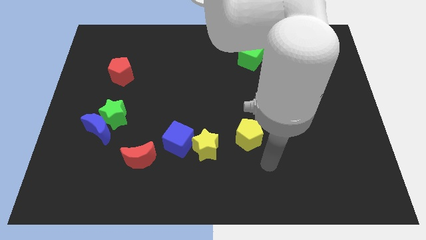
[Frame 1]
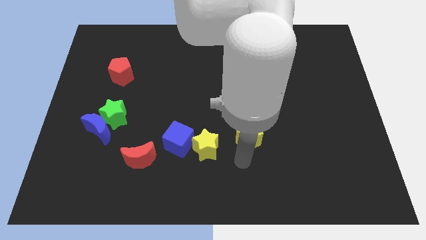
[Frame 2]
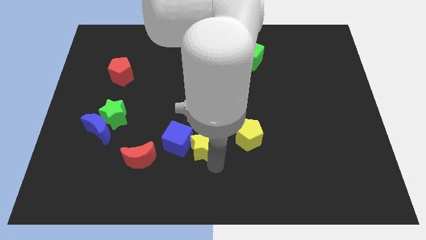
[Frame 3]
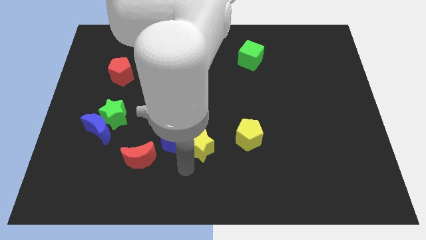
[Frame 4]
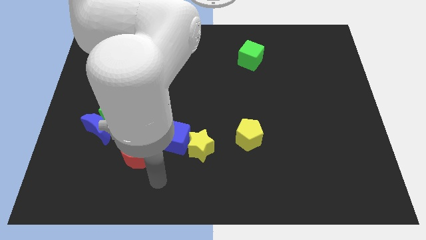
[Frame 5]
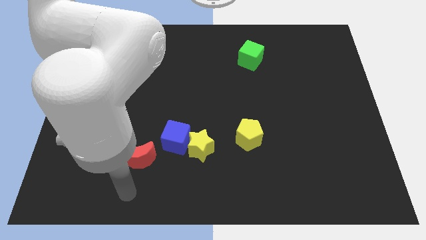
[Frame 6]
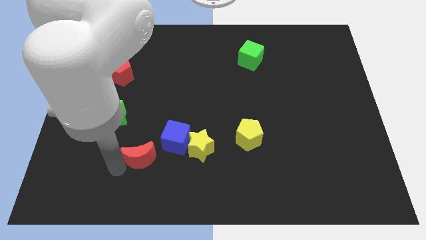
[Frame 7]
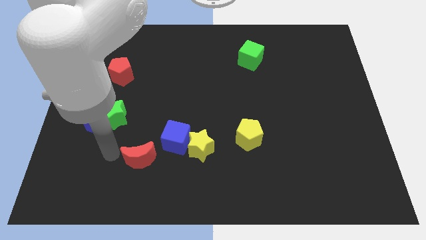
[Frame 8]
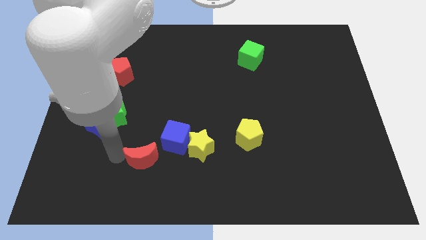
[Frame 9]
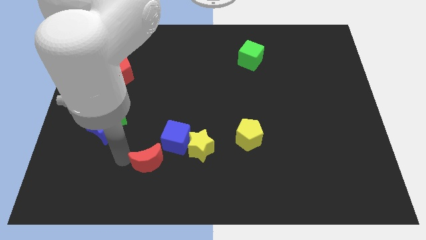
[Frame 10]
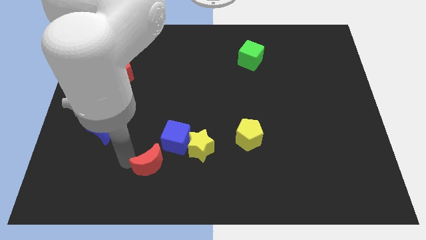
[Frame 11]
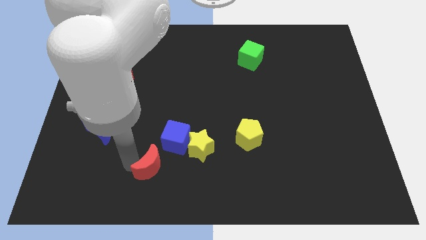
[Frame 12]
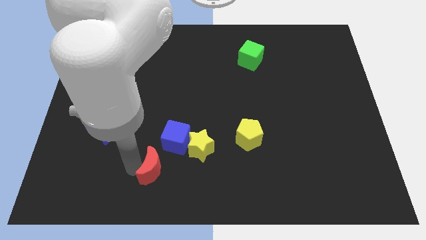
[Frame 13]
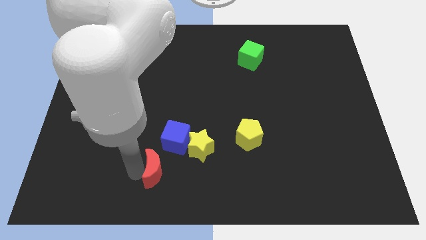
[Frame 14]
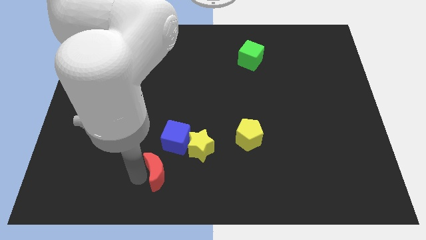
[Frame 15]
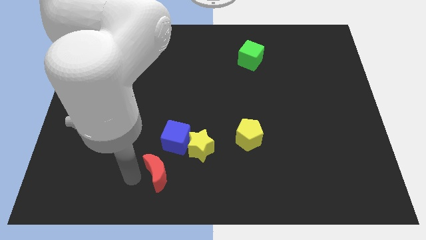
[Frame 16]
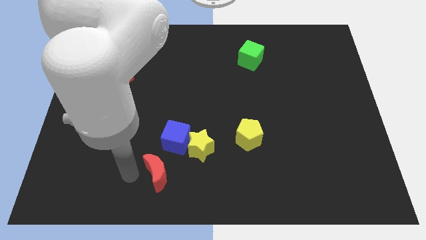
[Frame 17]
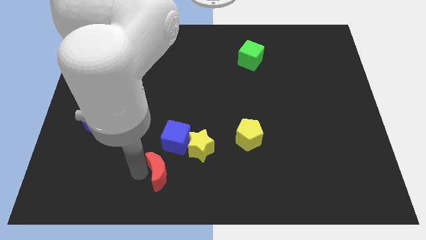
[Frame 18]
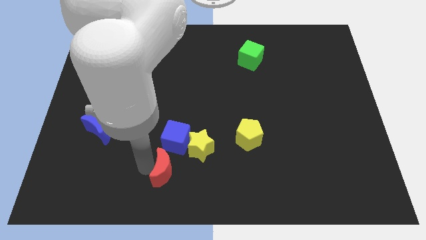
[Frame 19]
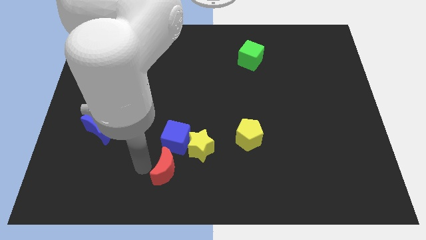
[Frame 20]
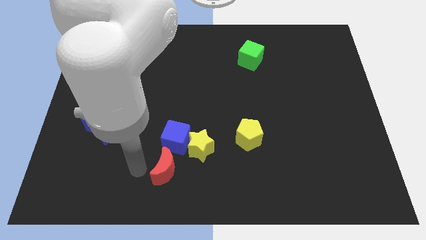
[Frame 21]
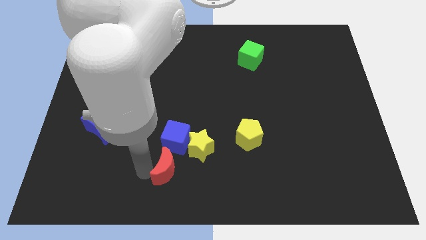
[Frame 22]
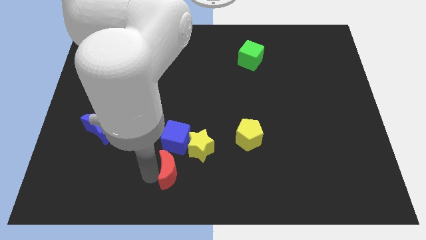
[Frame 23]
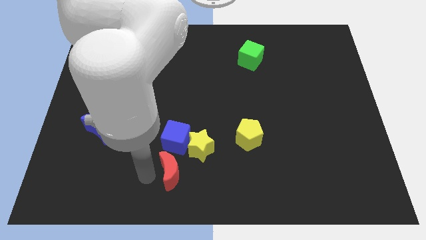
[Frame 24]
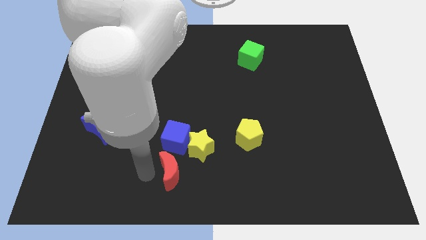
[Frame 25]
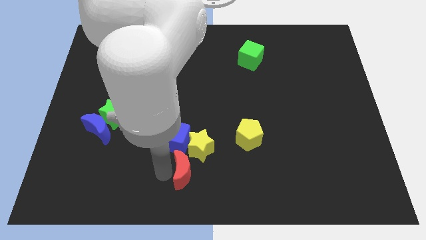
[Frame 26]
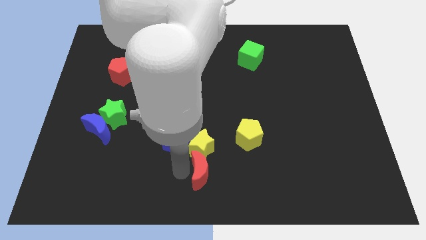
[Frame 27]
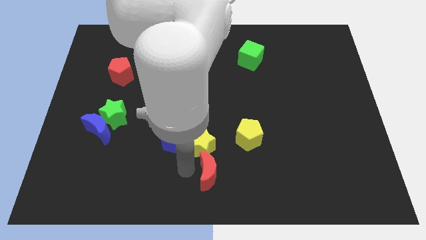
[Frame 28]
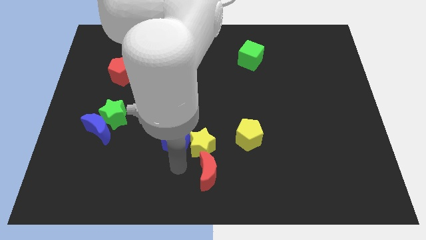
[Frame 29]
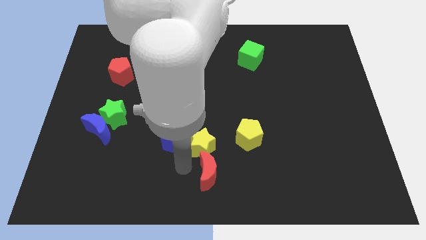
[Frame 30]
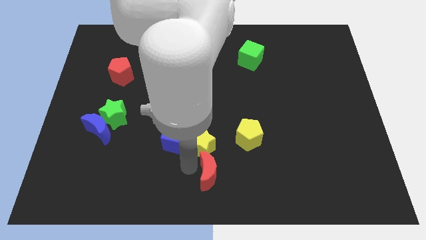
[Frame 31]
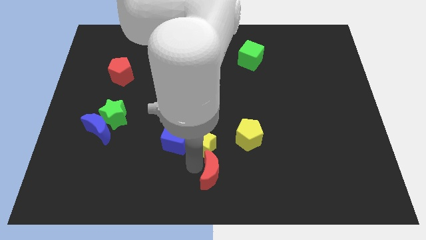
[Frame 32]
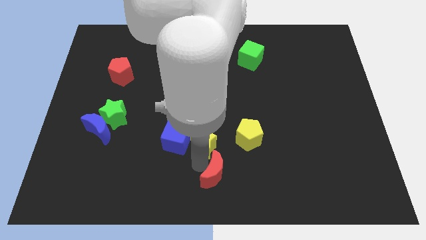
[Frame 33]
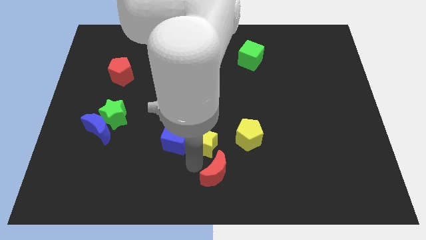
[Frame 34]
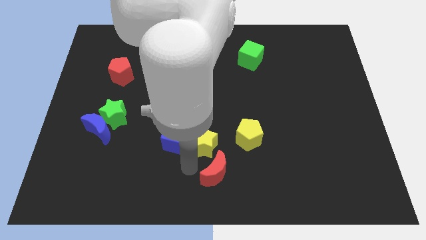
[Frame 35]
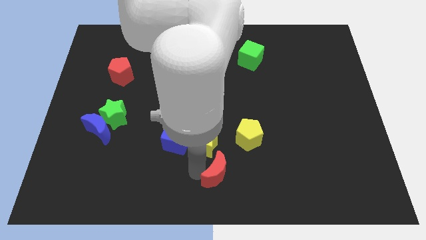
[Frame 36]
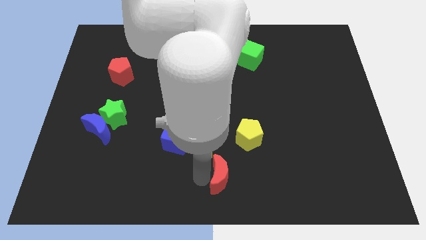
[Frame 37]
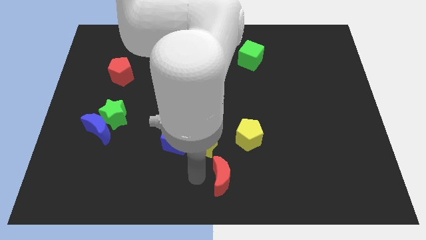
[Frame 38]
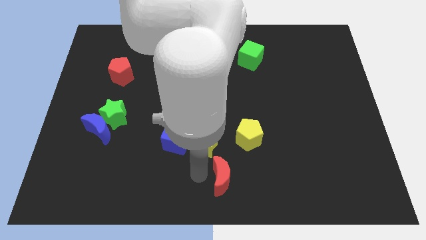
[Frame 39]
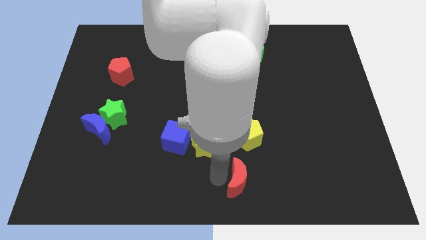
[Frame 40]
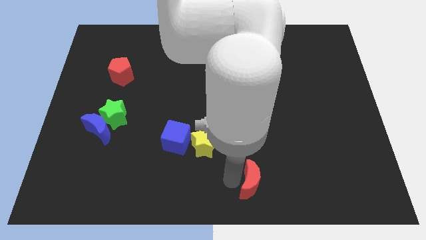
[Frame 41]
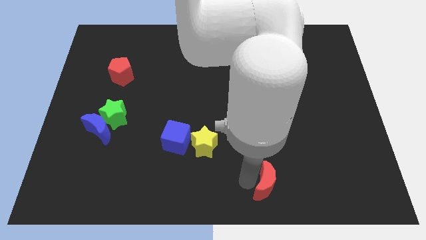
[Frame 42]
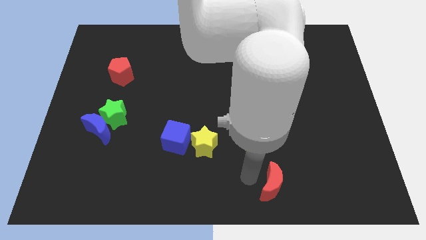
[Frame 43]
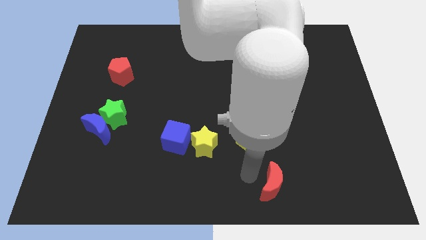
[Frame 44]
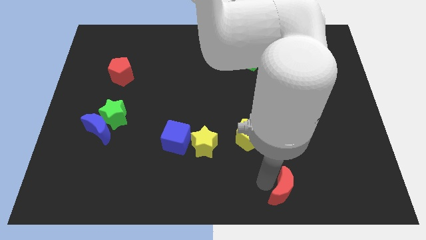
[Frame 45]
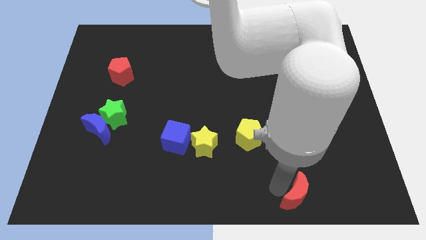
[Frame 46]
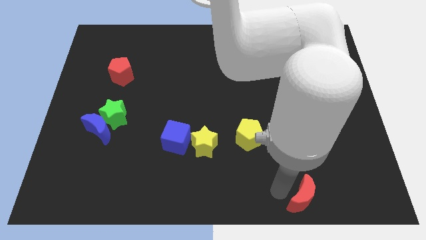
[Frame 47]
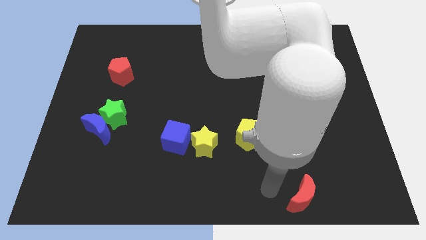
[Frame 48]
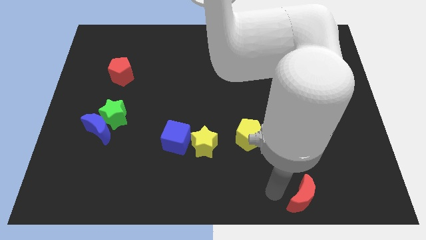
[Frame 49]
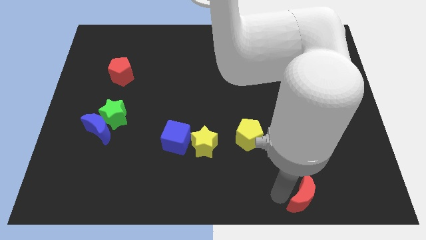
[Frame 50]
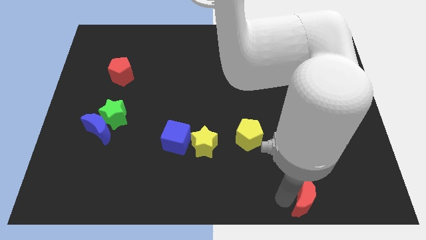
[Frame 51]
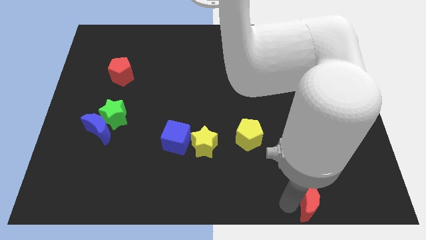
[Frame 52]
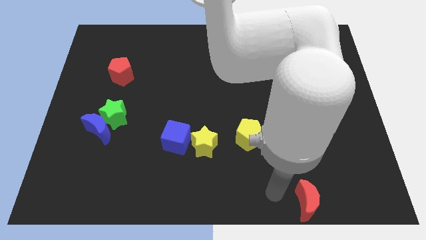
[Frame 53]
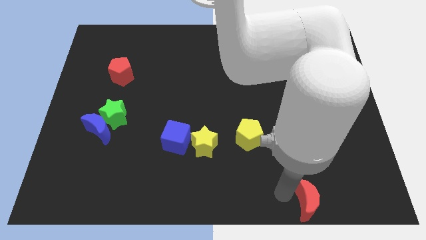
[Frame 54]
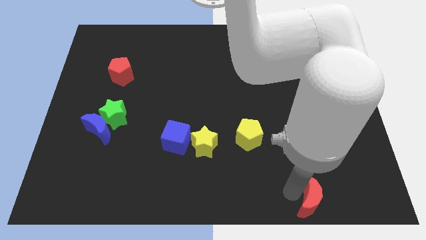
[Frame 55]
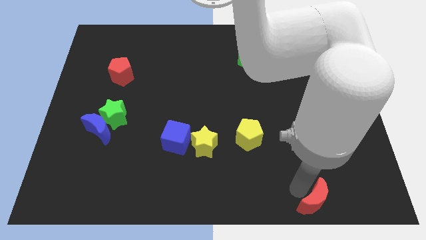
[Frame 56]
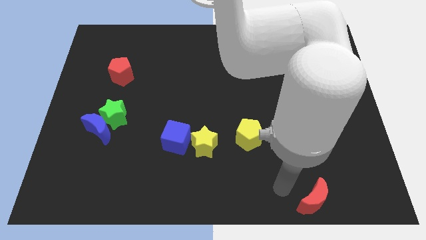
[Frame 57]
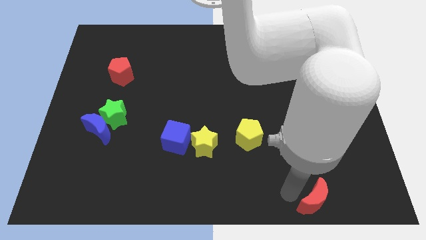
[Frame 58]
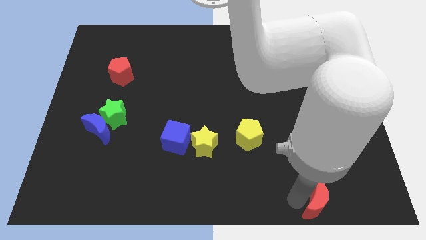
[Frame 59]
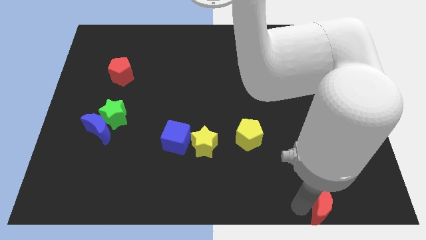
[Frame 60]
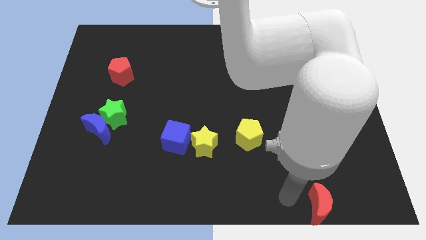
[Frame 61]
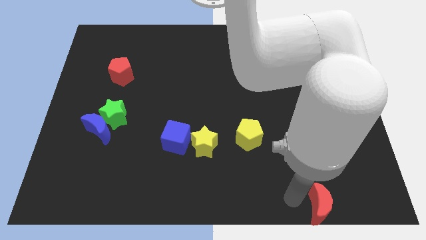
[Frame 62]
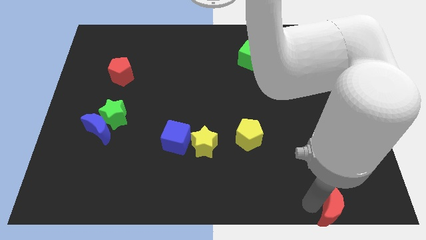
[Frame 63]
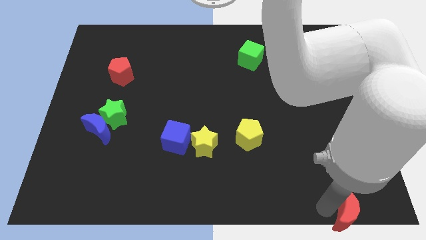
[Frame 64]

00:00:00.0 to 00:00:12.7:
move the red moon to the lower right corner
